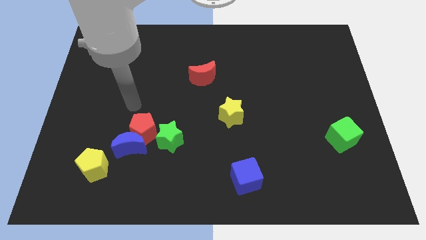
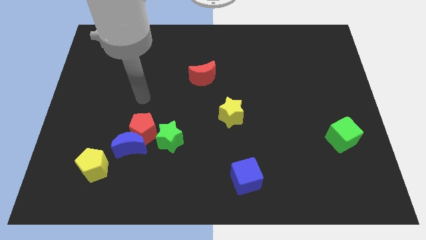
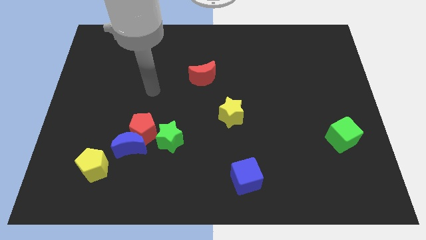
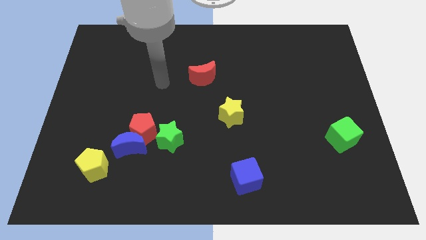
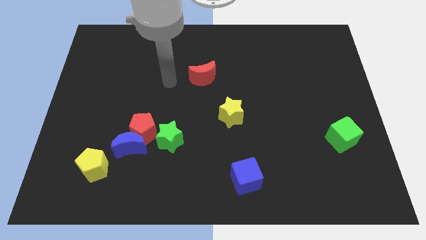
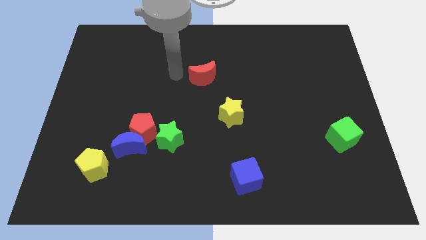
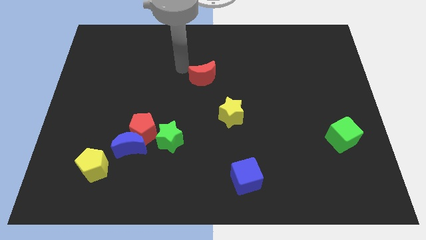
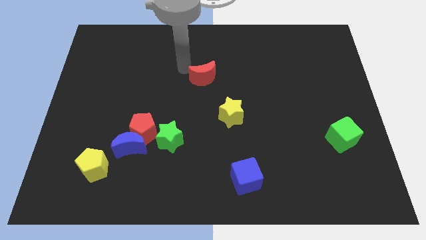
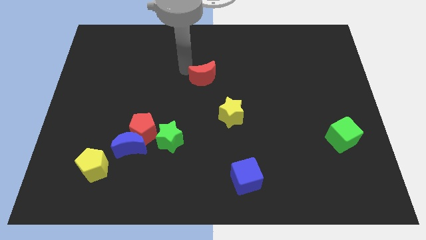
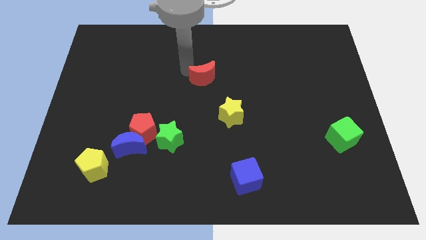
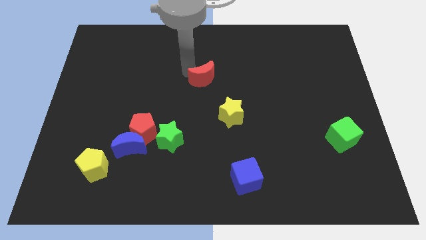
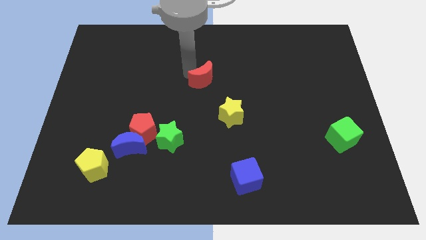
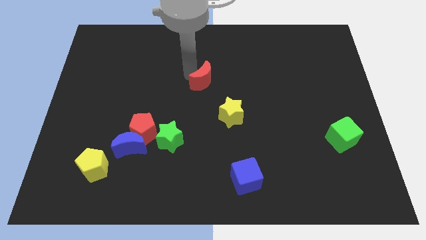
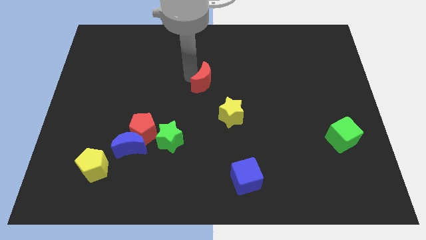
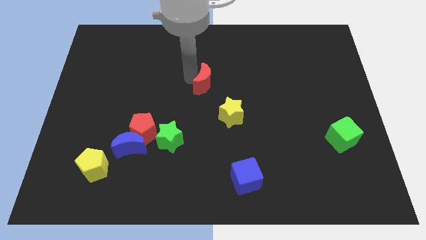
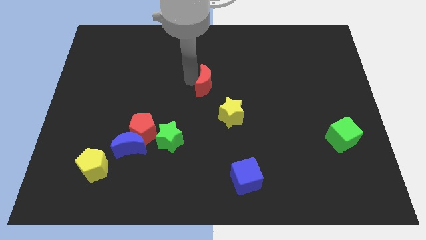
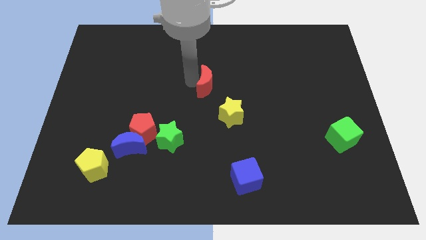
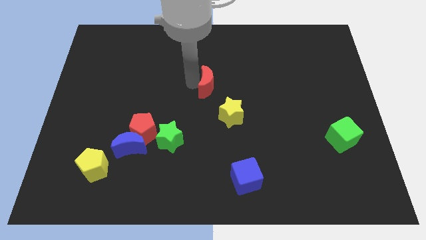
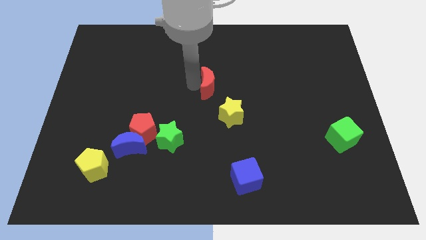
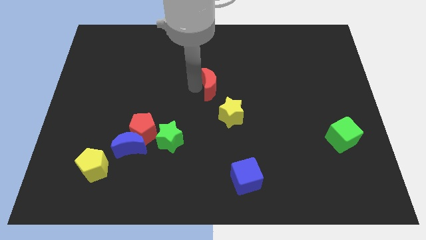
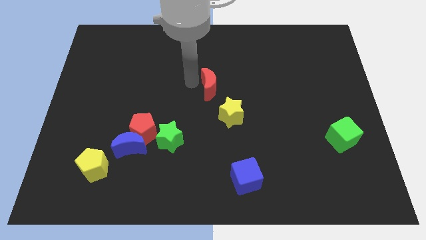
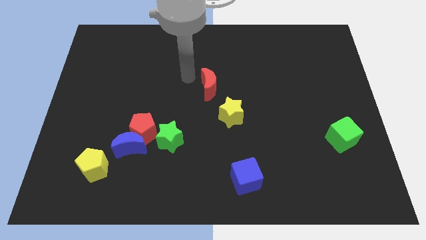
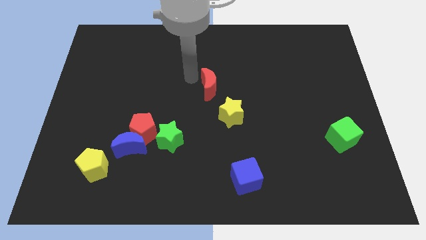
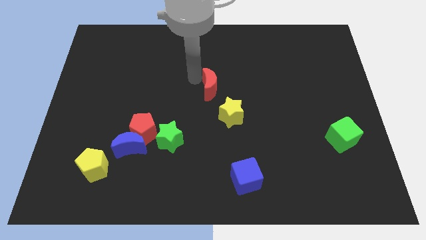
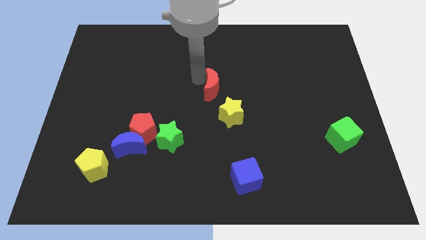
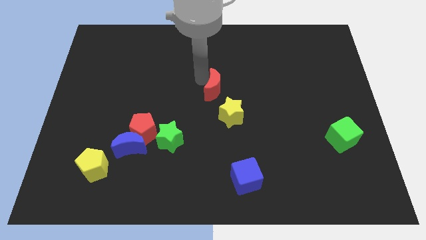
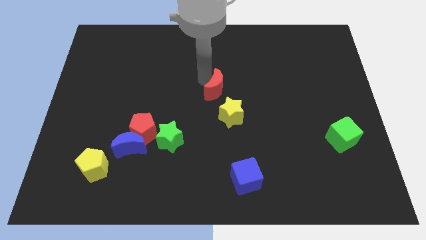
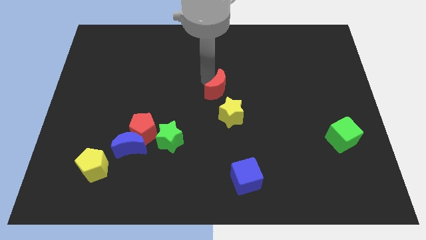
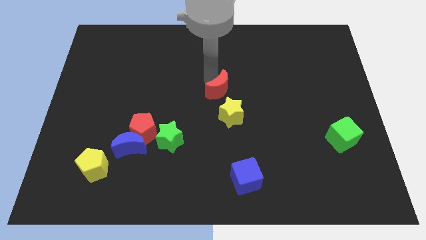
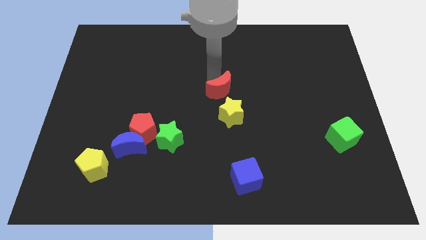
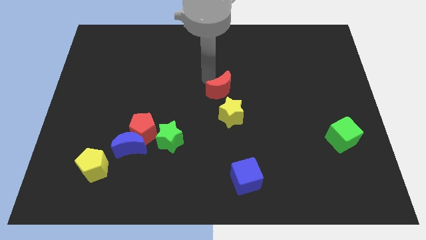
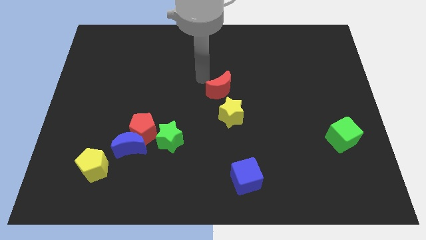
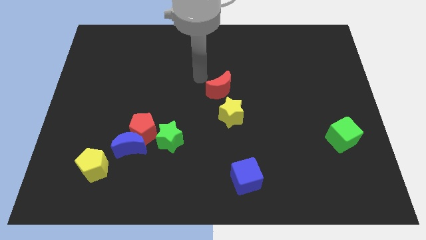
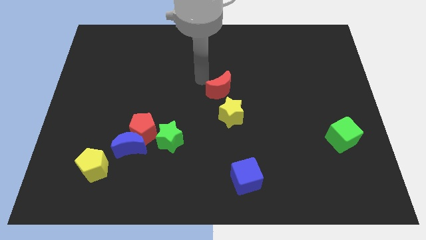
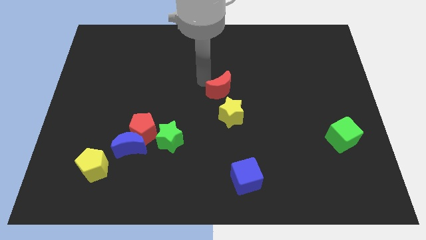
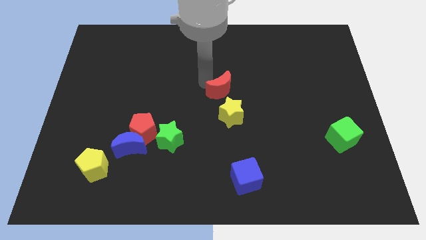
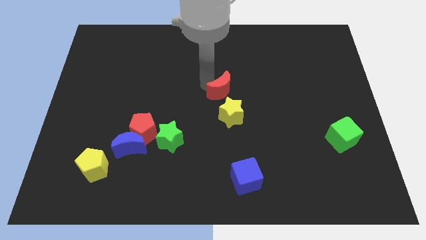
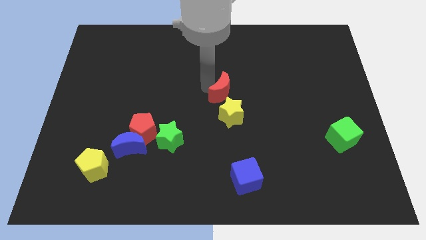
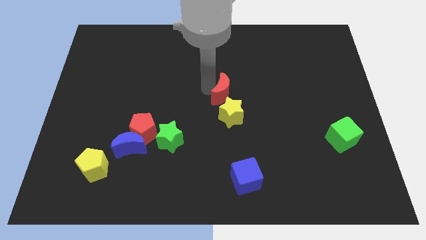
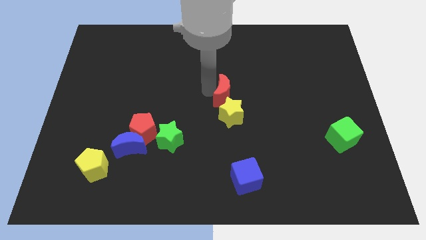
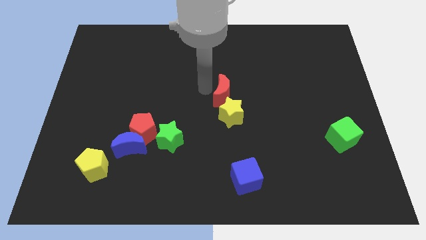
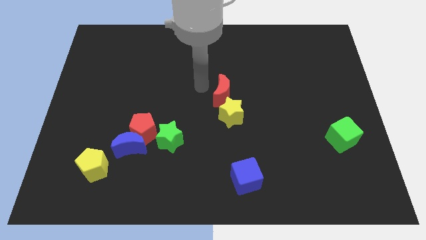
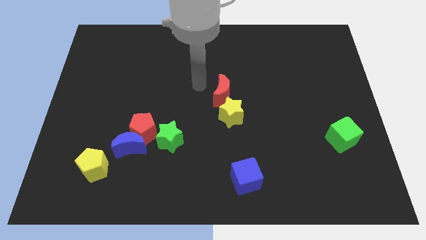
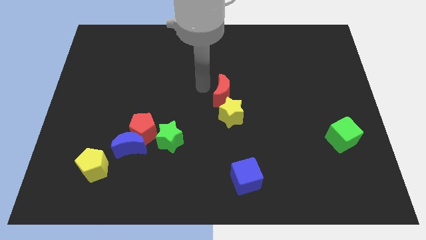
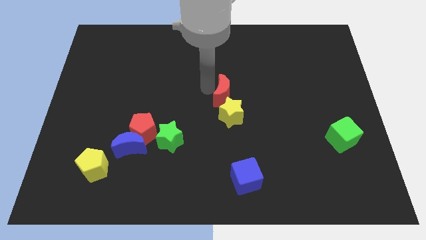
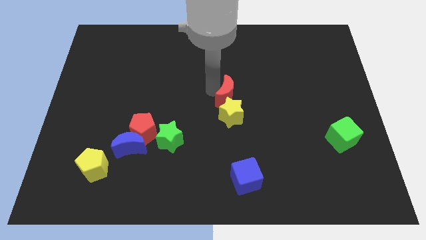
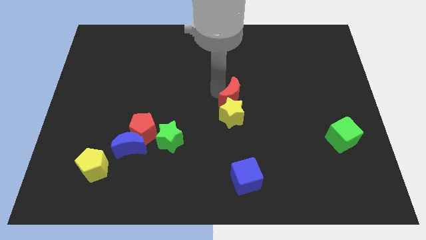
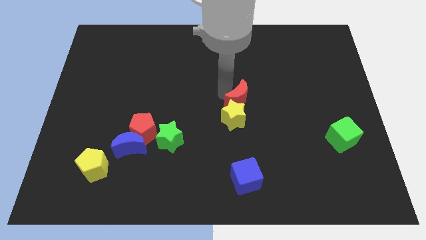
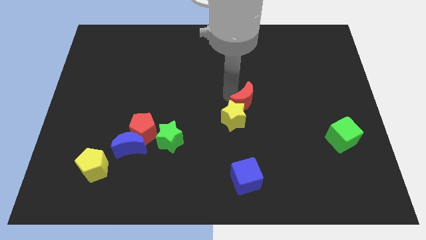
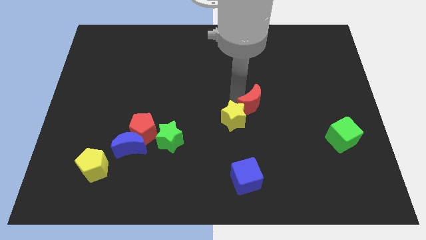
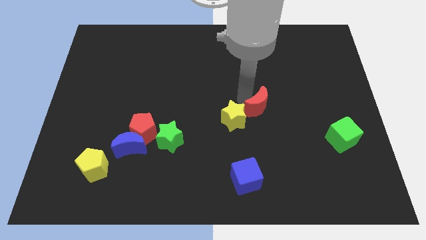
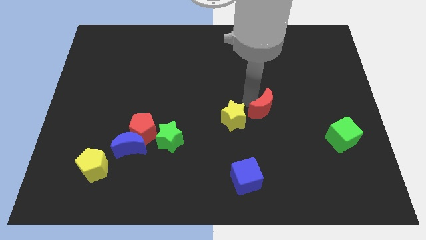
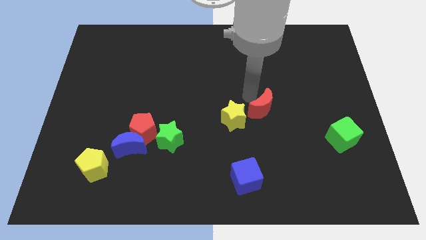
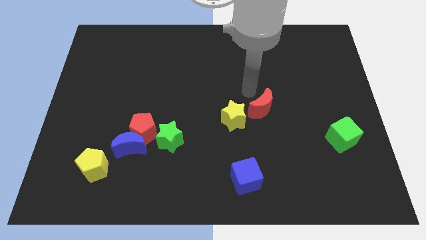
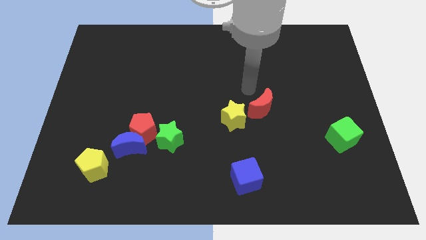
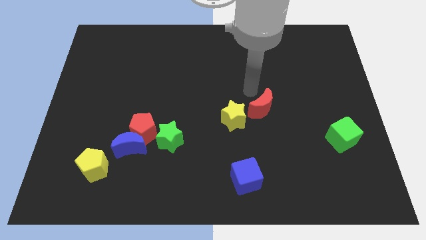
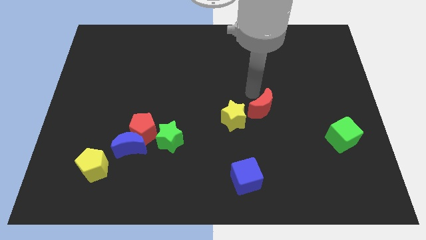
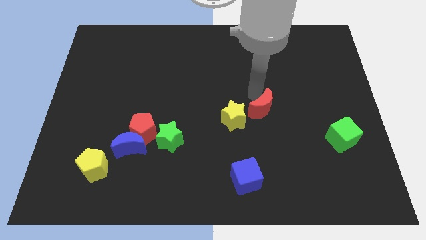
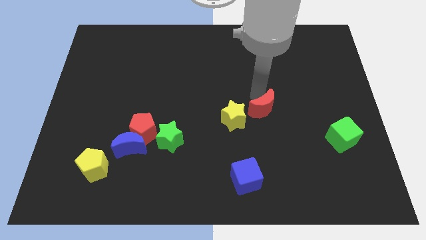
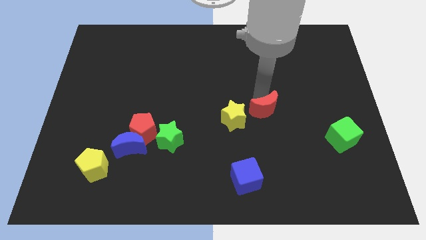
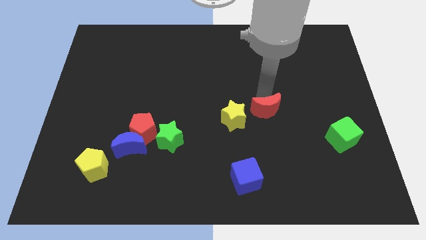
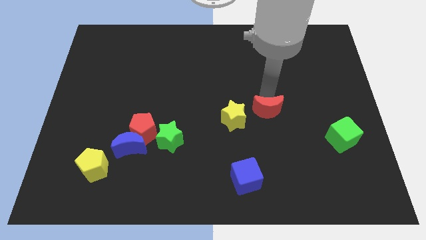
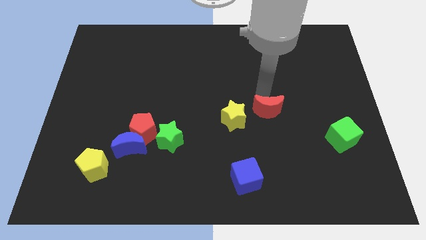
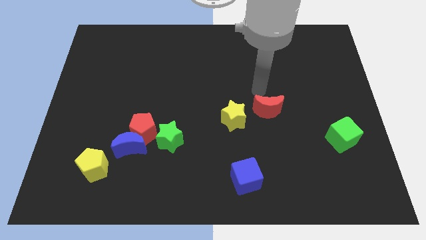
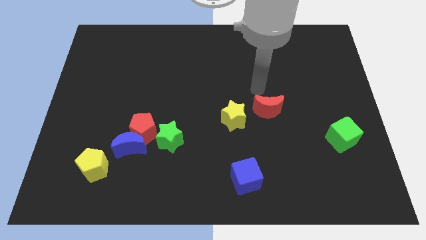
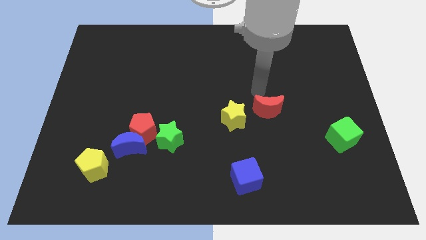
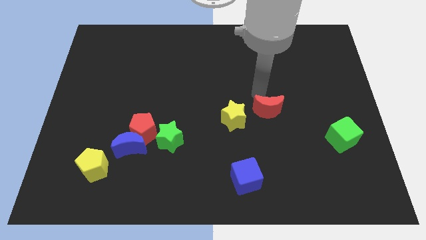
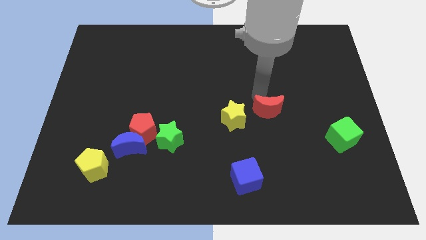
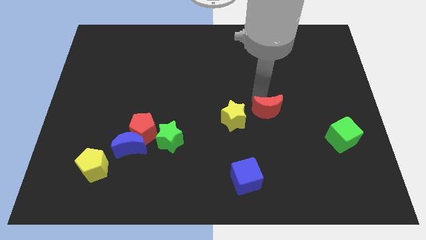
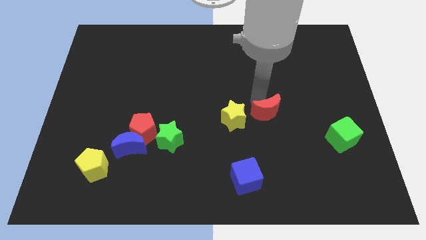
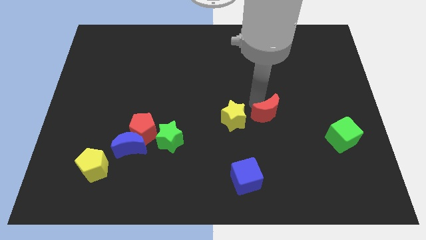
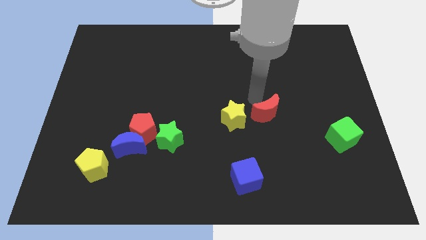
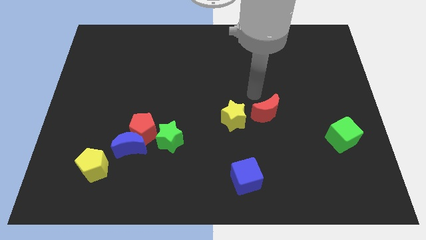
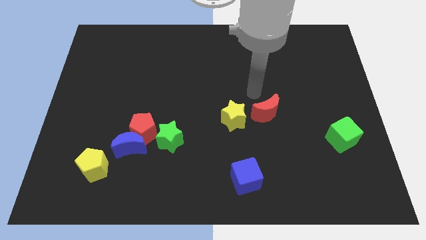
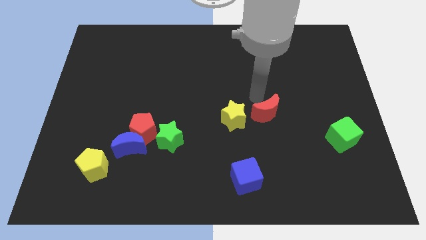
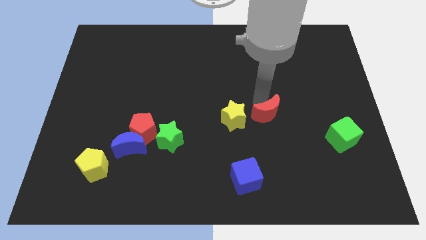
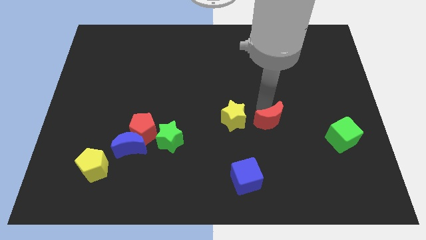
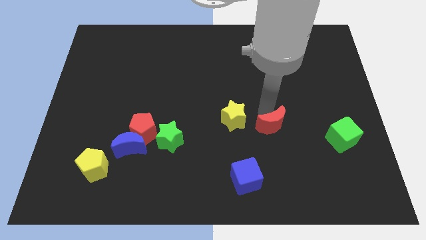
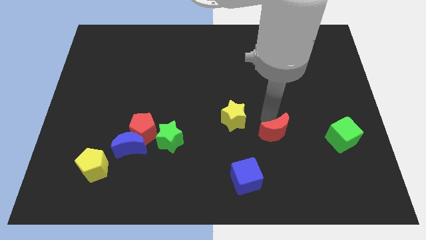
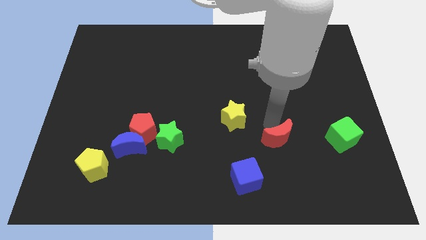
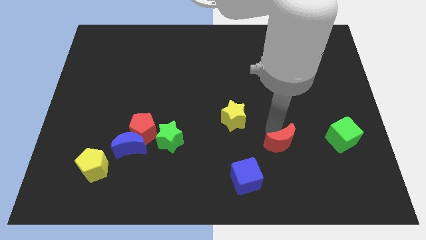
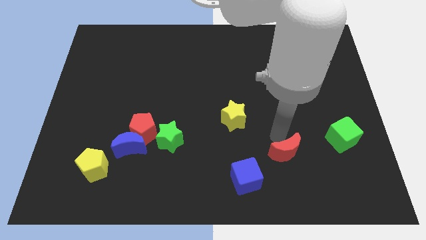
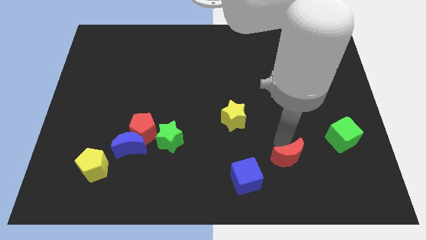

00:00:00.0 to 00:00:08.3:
move the red moon right of the blue cube
